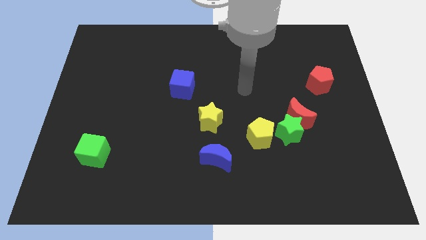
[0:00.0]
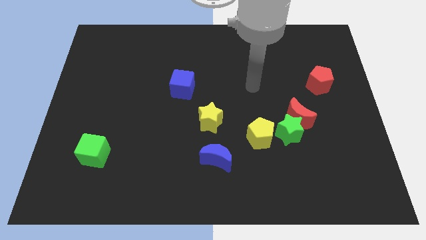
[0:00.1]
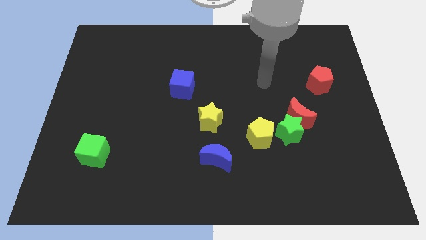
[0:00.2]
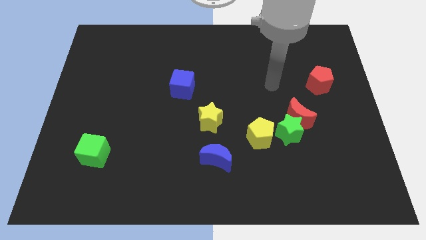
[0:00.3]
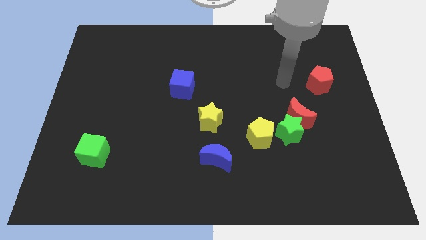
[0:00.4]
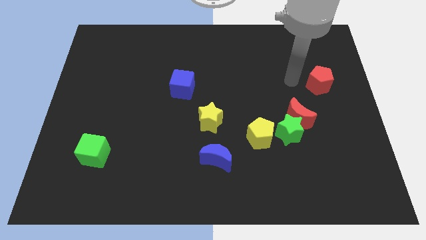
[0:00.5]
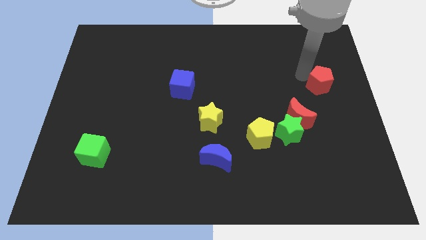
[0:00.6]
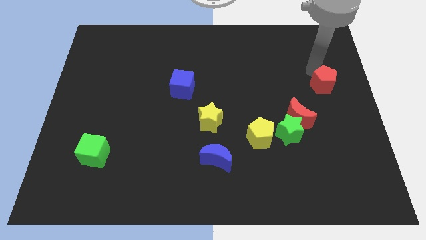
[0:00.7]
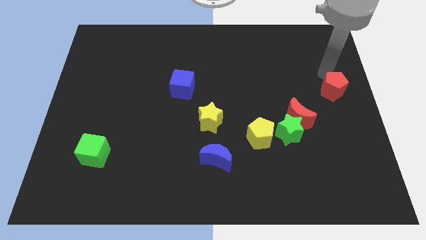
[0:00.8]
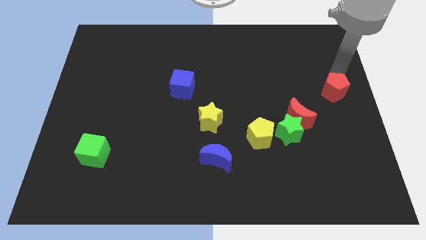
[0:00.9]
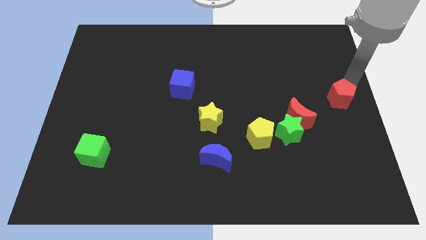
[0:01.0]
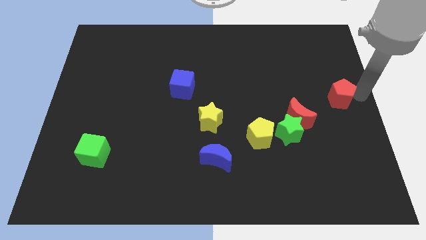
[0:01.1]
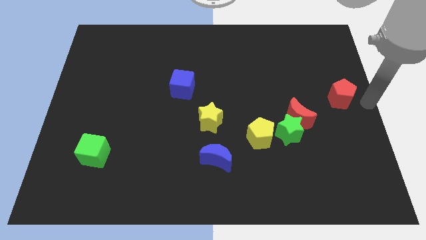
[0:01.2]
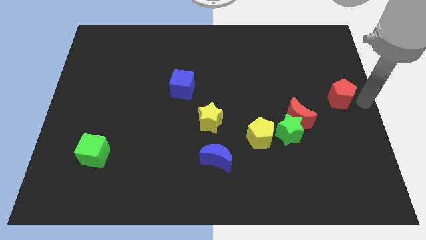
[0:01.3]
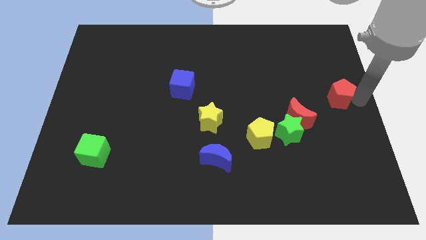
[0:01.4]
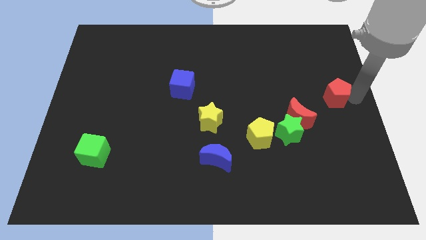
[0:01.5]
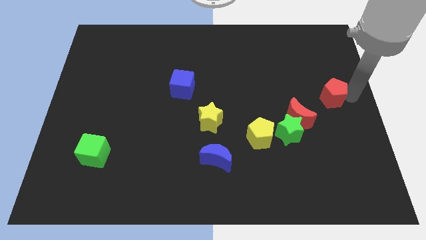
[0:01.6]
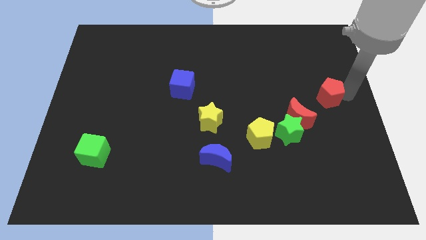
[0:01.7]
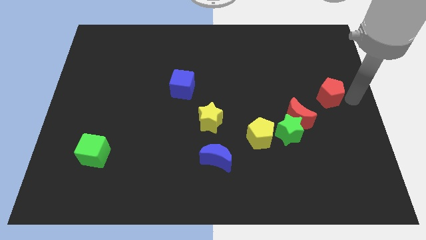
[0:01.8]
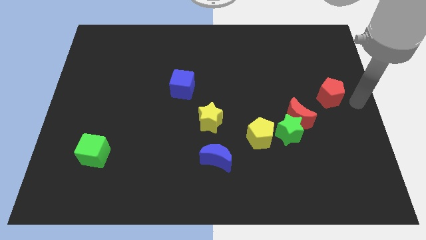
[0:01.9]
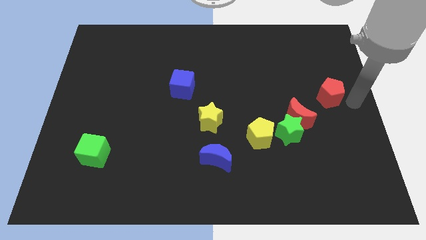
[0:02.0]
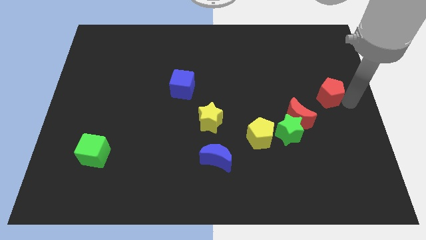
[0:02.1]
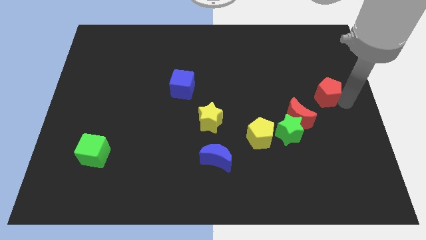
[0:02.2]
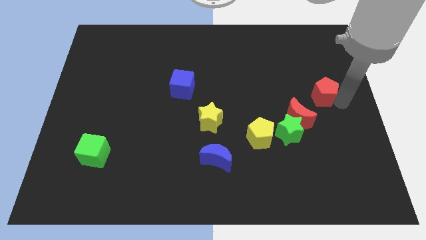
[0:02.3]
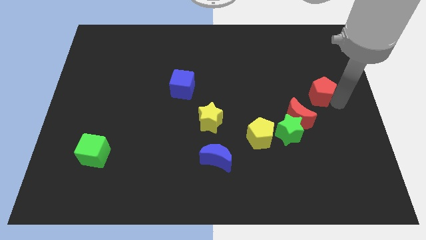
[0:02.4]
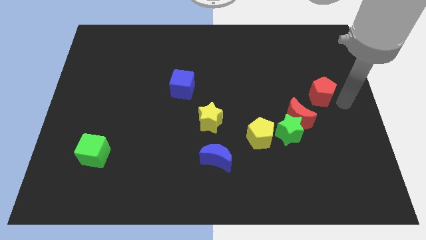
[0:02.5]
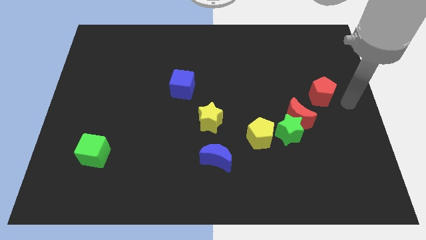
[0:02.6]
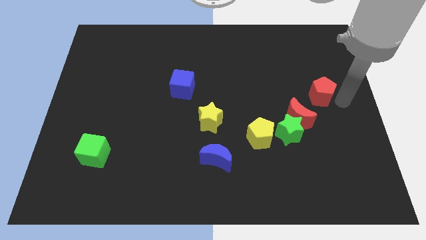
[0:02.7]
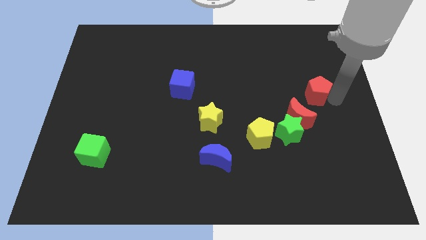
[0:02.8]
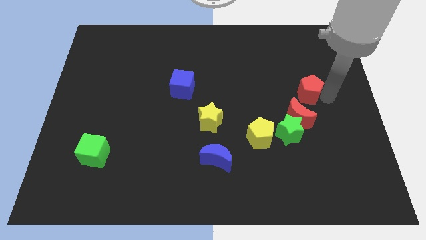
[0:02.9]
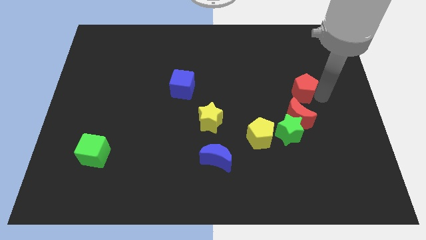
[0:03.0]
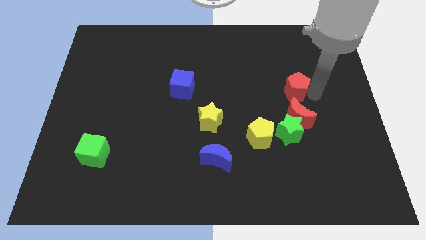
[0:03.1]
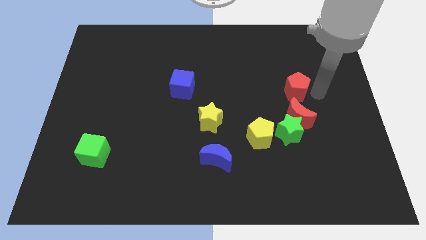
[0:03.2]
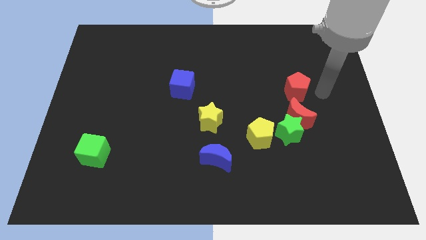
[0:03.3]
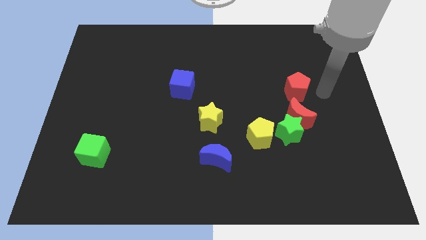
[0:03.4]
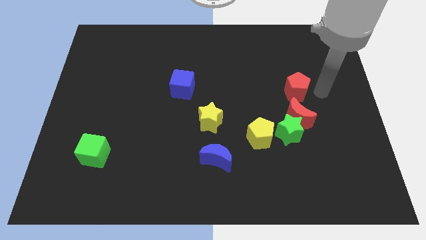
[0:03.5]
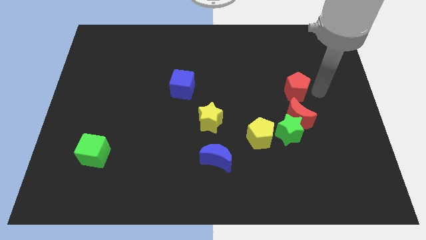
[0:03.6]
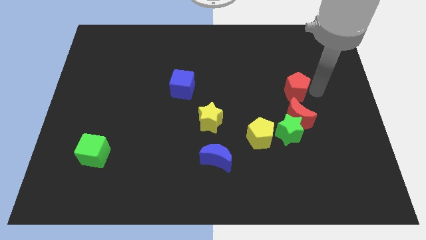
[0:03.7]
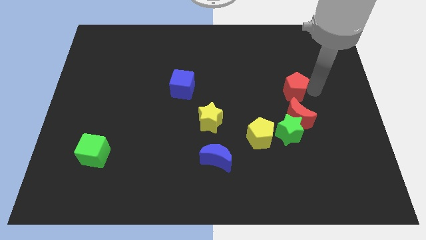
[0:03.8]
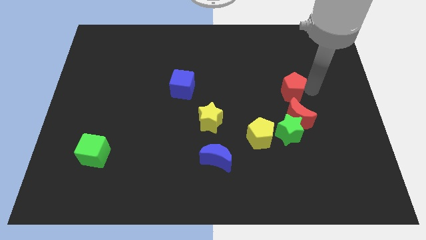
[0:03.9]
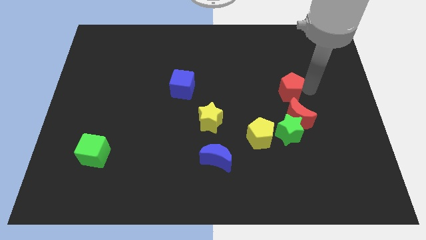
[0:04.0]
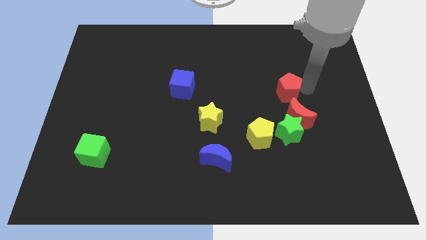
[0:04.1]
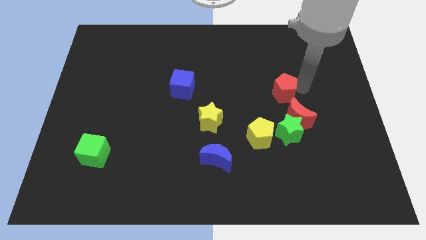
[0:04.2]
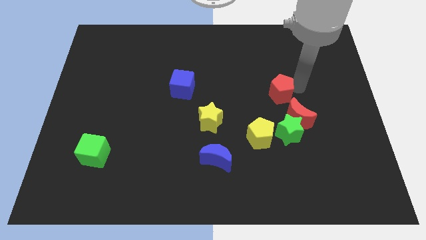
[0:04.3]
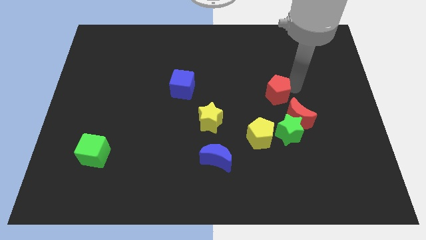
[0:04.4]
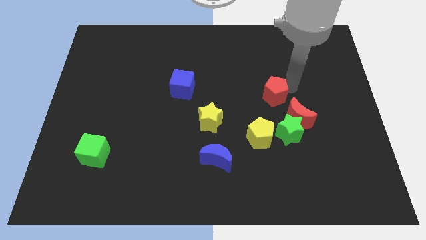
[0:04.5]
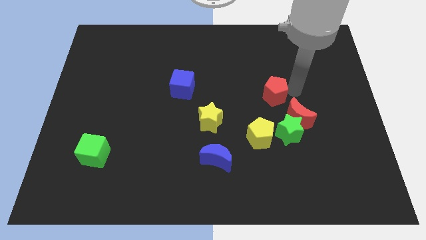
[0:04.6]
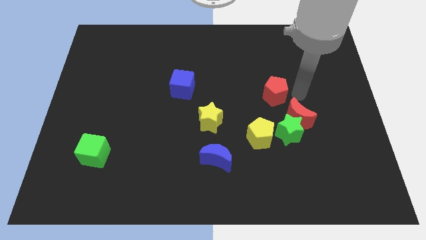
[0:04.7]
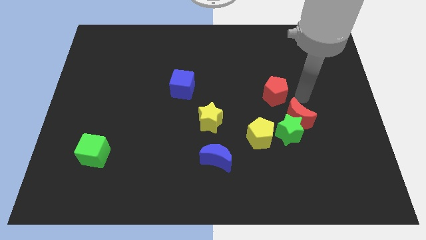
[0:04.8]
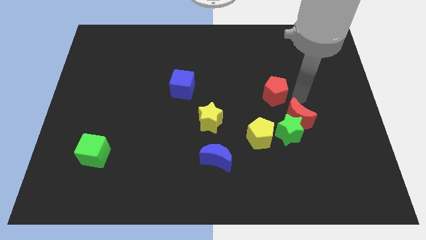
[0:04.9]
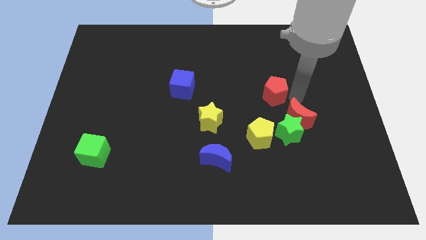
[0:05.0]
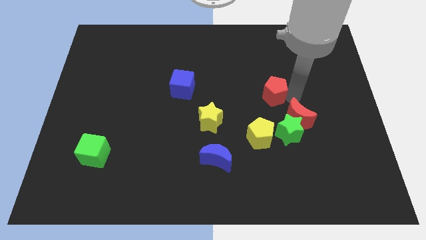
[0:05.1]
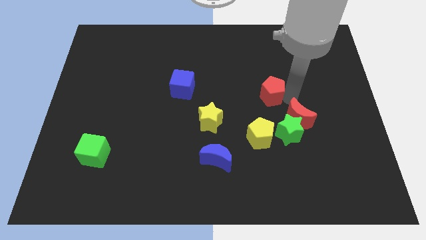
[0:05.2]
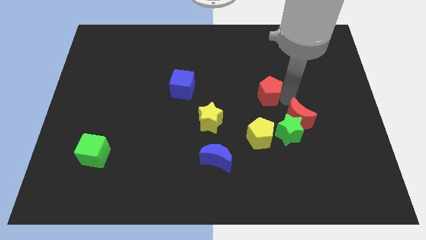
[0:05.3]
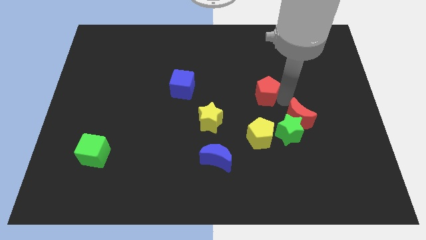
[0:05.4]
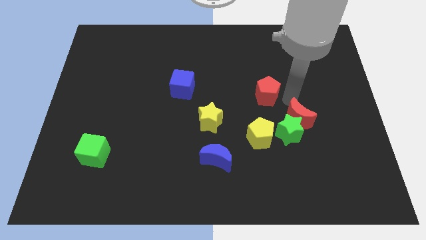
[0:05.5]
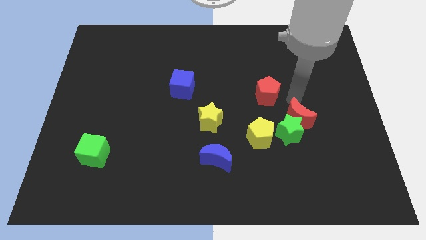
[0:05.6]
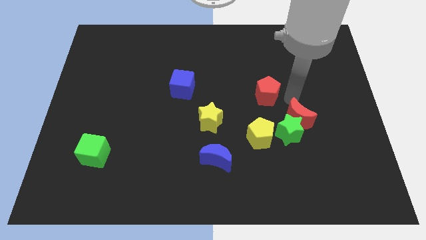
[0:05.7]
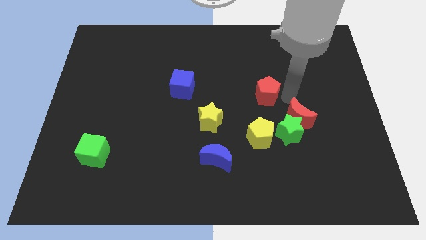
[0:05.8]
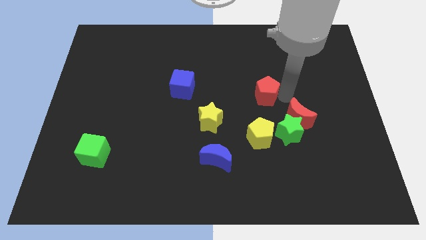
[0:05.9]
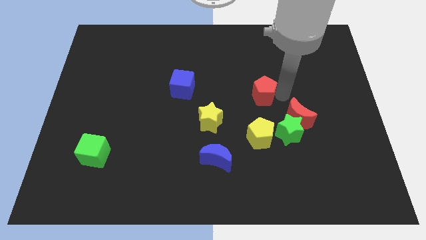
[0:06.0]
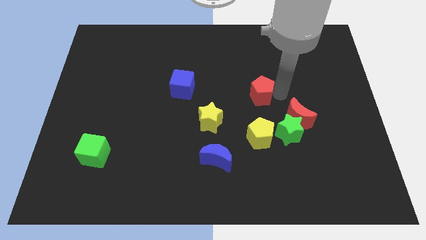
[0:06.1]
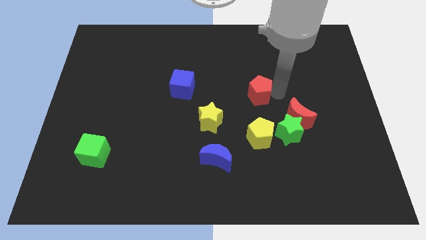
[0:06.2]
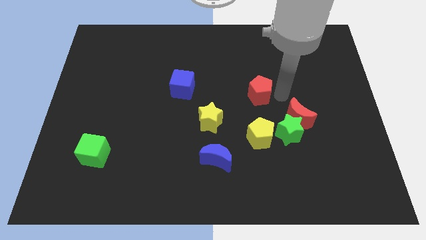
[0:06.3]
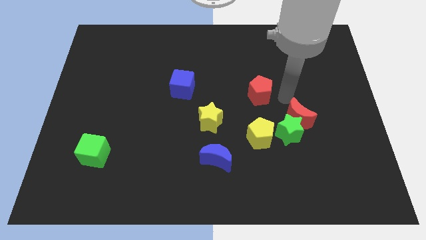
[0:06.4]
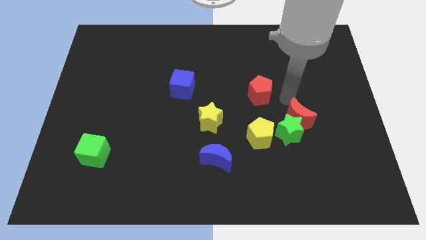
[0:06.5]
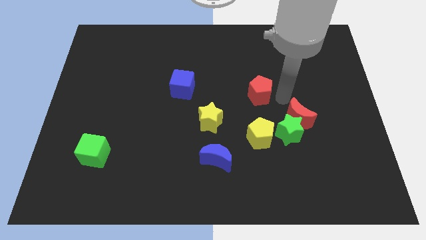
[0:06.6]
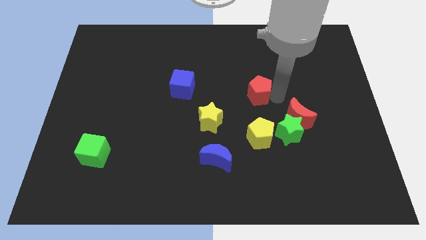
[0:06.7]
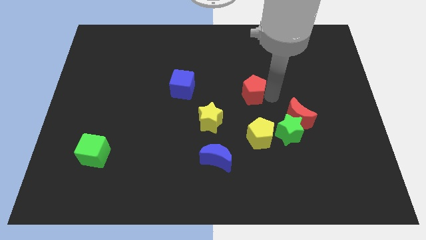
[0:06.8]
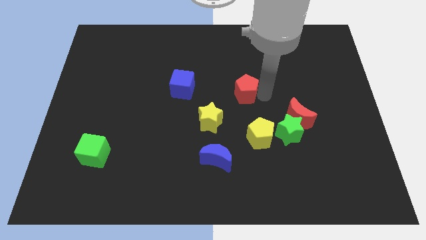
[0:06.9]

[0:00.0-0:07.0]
move the red pentagon right of the blue cube
